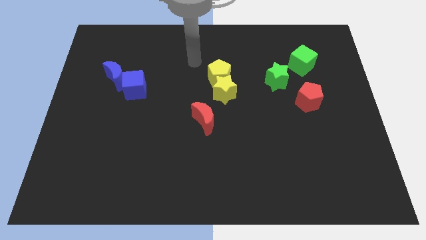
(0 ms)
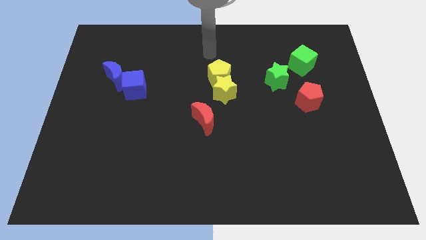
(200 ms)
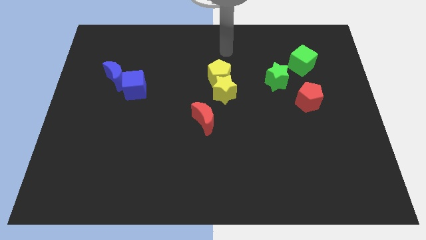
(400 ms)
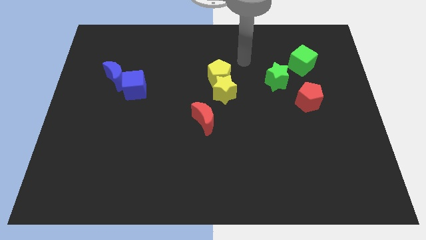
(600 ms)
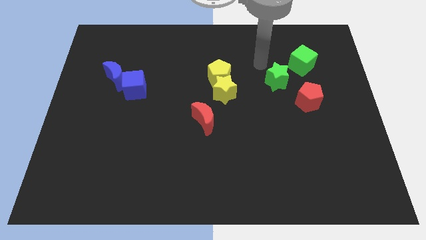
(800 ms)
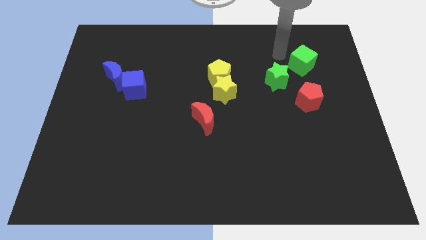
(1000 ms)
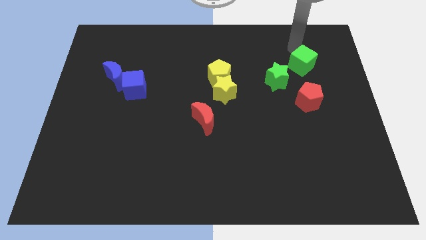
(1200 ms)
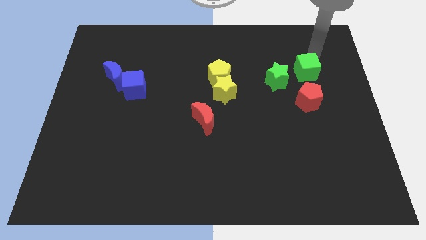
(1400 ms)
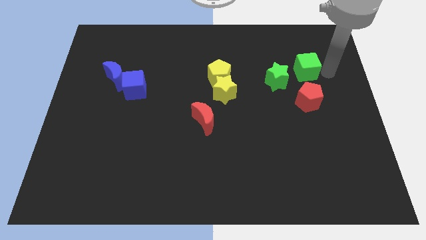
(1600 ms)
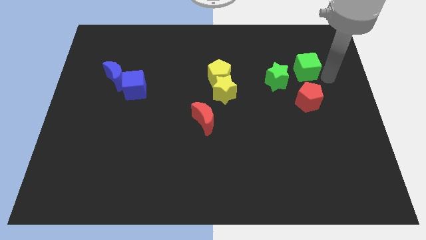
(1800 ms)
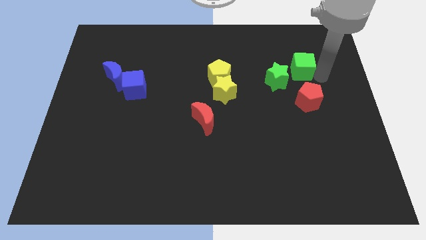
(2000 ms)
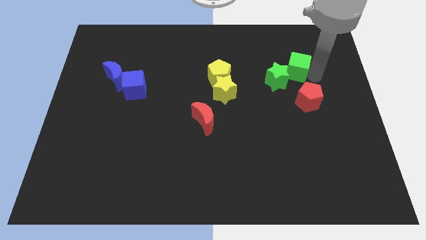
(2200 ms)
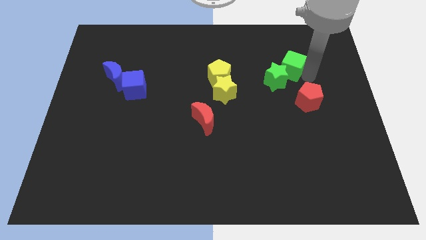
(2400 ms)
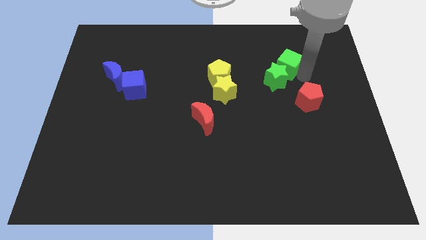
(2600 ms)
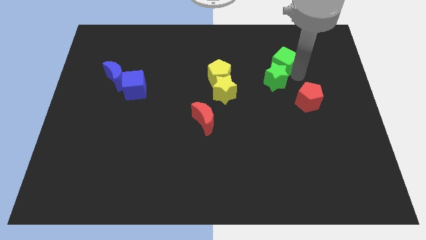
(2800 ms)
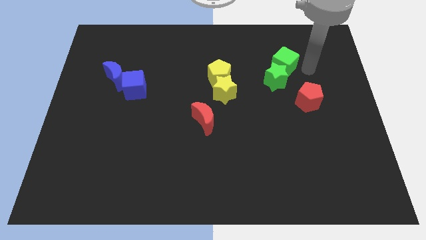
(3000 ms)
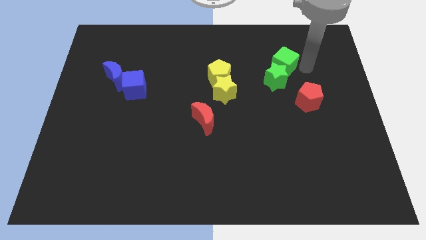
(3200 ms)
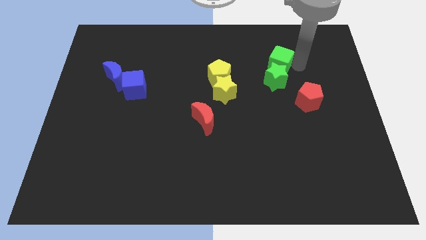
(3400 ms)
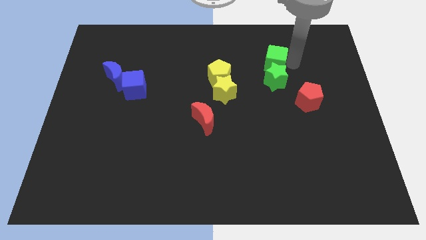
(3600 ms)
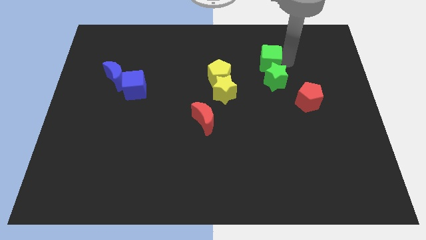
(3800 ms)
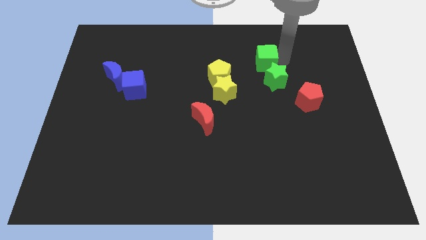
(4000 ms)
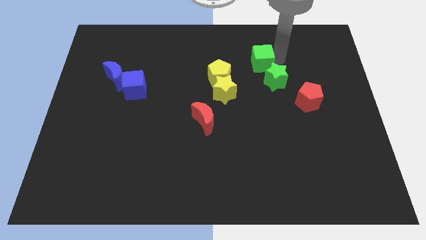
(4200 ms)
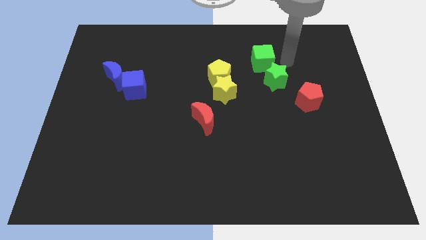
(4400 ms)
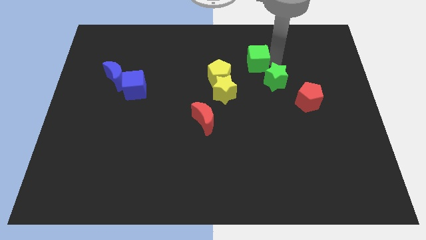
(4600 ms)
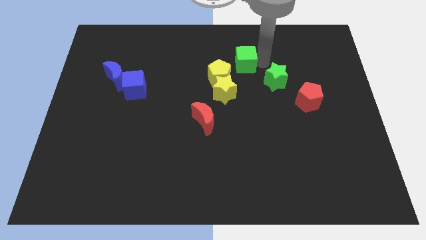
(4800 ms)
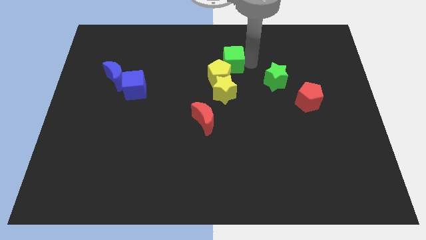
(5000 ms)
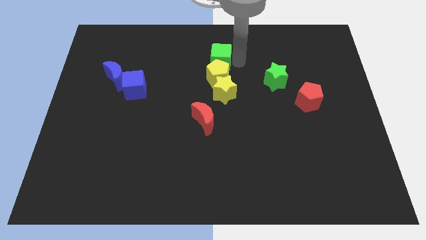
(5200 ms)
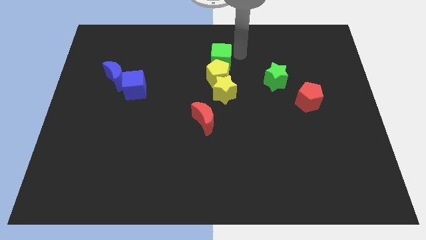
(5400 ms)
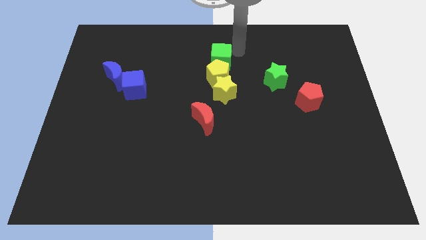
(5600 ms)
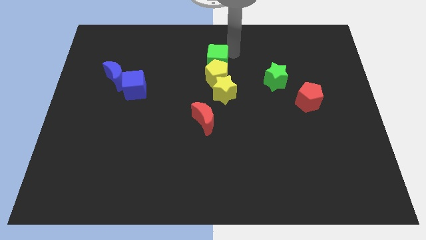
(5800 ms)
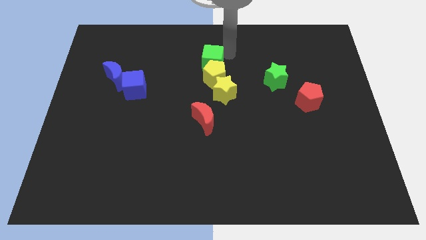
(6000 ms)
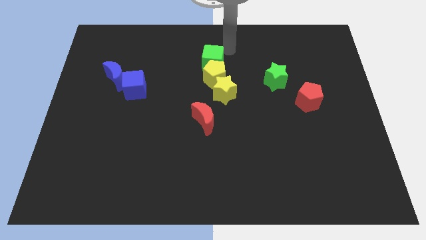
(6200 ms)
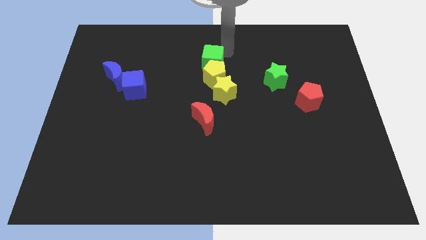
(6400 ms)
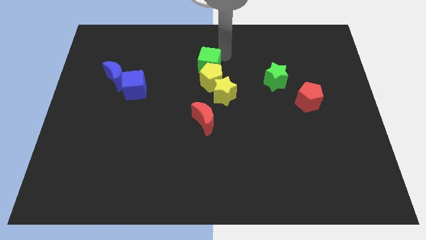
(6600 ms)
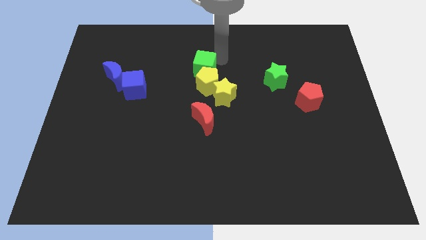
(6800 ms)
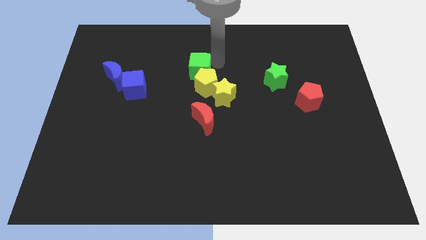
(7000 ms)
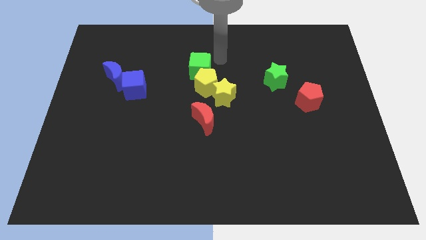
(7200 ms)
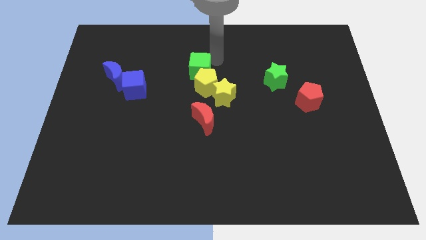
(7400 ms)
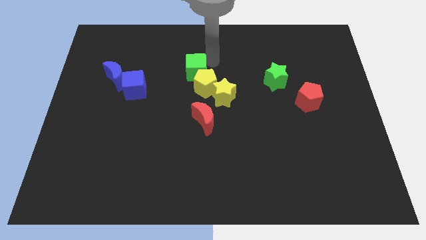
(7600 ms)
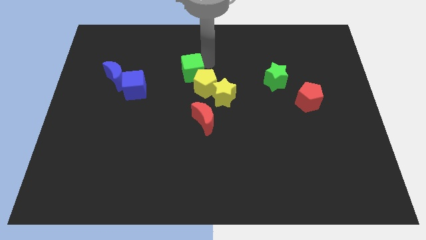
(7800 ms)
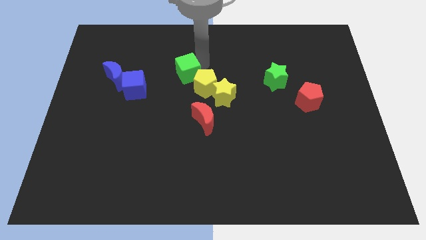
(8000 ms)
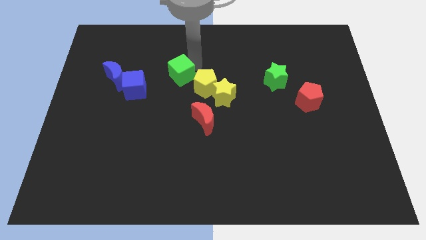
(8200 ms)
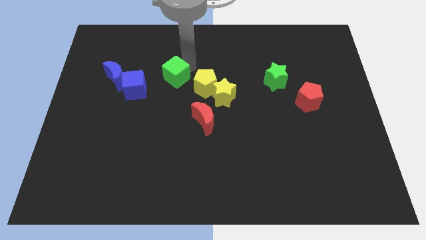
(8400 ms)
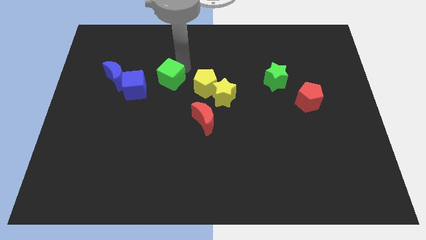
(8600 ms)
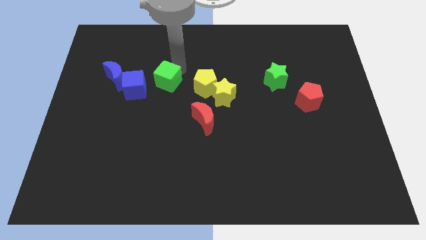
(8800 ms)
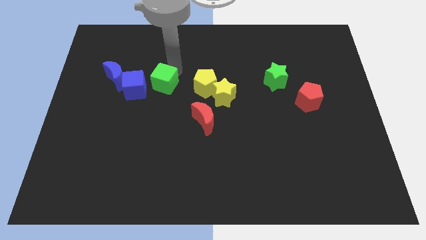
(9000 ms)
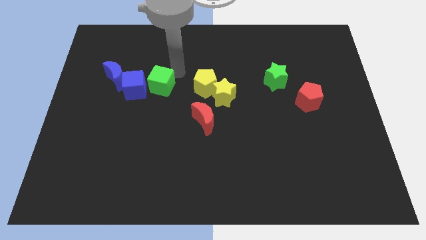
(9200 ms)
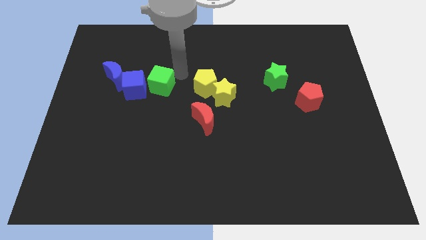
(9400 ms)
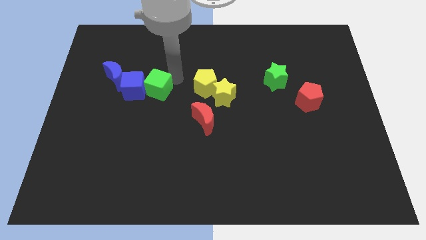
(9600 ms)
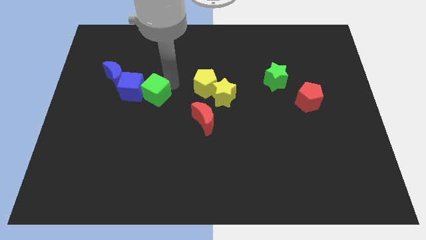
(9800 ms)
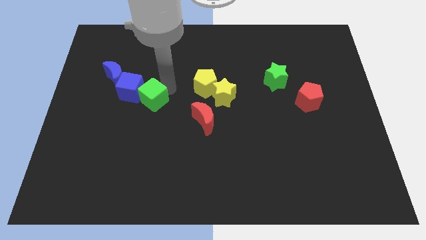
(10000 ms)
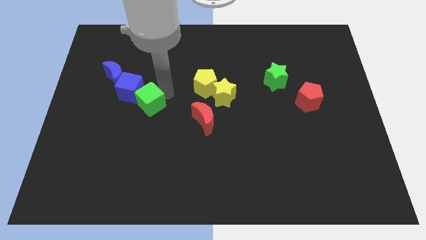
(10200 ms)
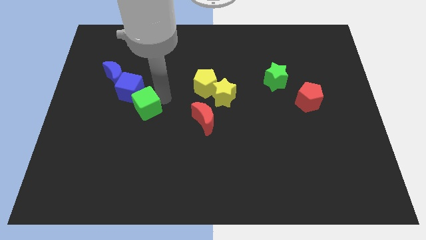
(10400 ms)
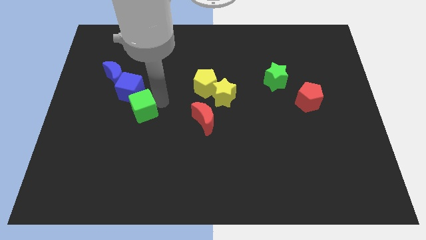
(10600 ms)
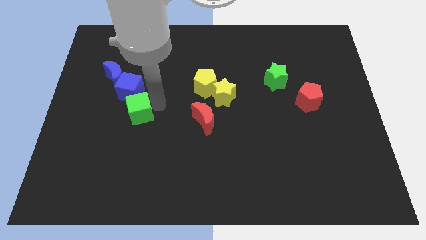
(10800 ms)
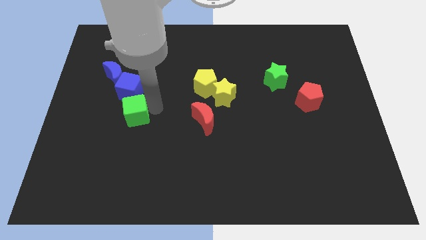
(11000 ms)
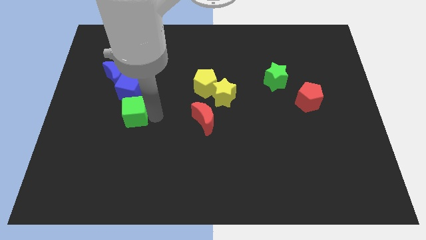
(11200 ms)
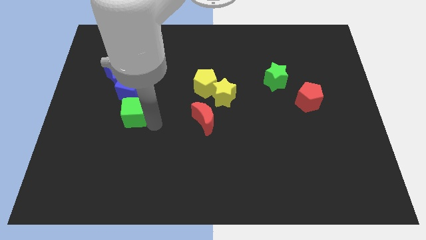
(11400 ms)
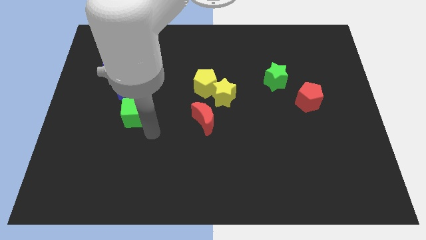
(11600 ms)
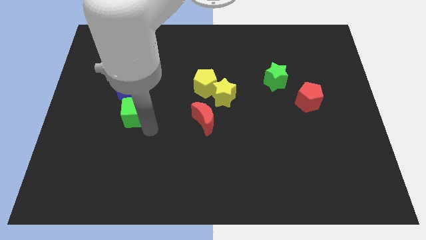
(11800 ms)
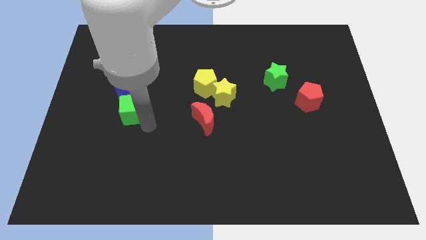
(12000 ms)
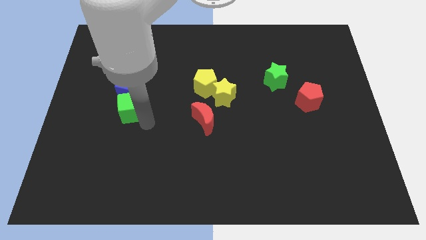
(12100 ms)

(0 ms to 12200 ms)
put the green cube to the bottom side of the blue moon

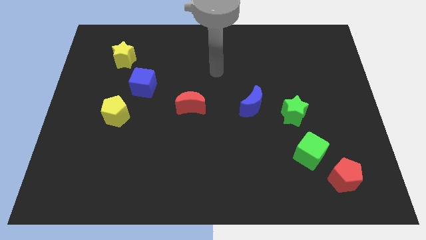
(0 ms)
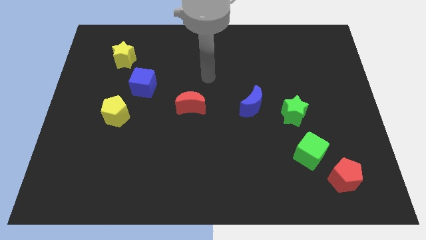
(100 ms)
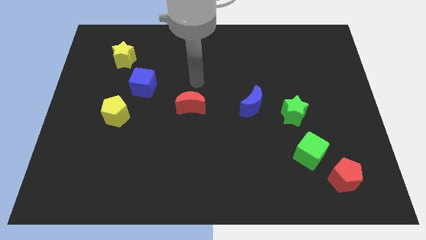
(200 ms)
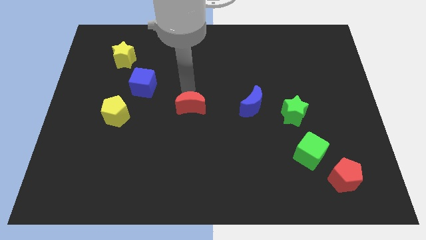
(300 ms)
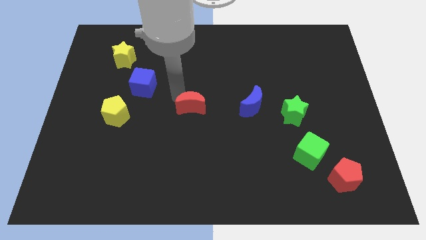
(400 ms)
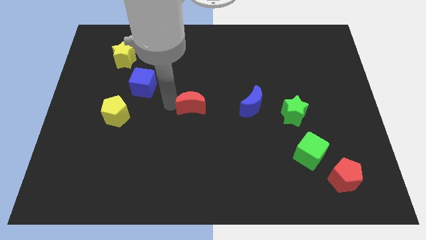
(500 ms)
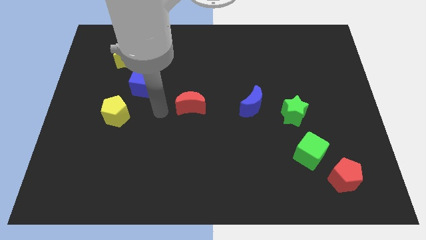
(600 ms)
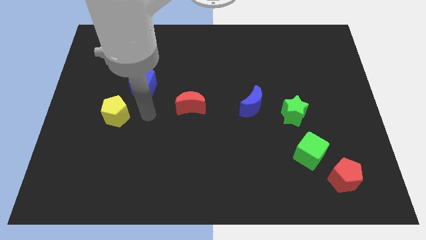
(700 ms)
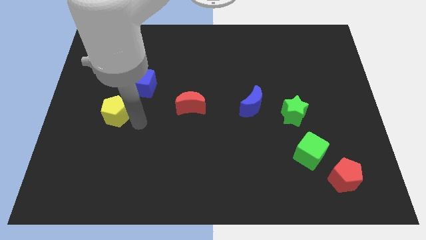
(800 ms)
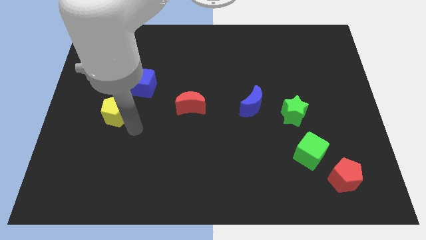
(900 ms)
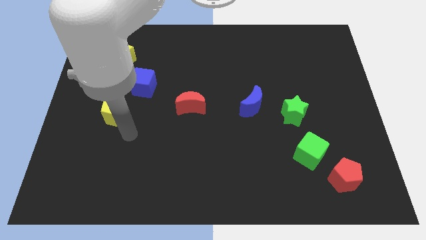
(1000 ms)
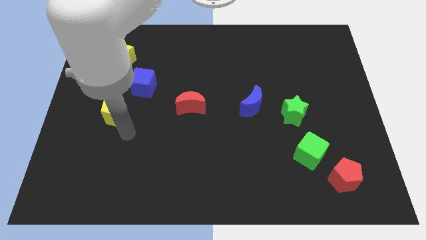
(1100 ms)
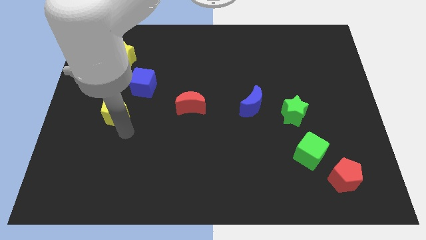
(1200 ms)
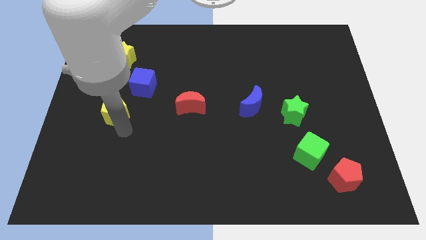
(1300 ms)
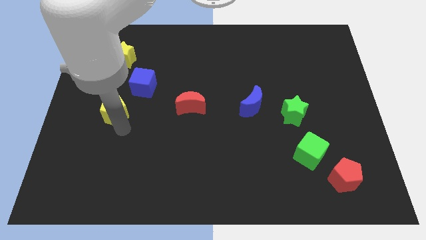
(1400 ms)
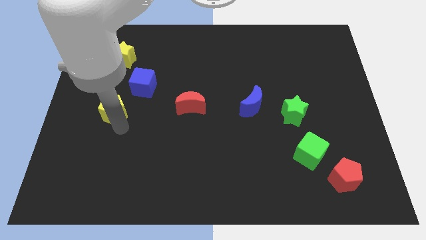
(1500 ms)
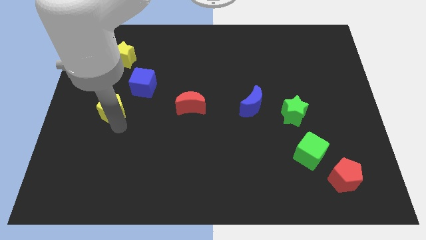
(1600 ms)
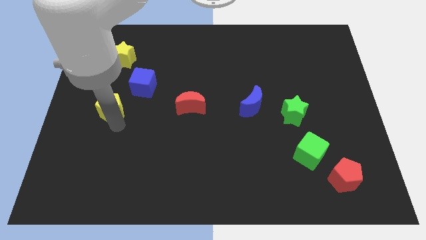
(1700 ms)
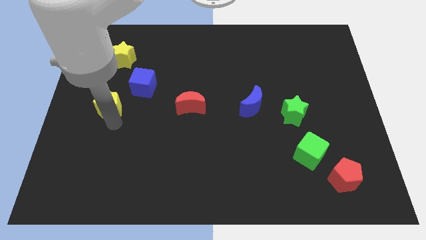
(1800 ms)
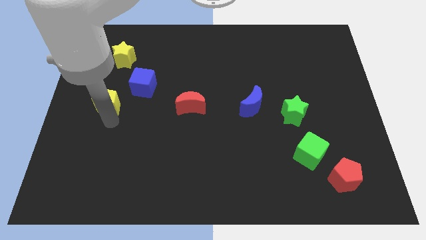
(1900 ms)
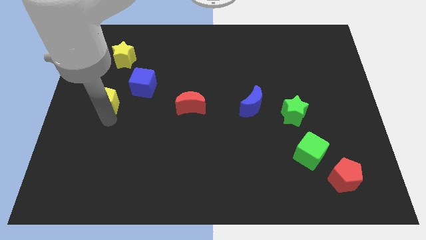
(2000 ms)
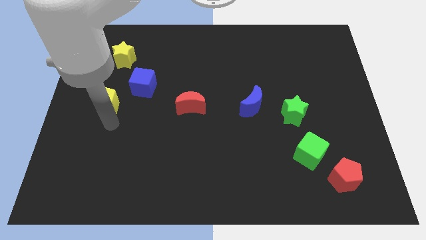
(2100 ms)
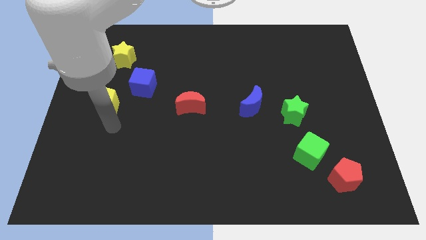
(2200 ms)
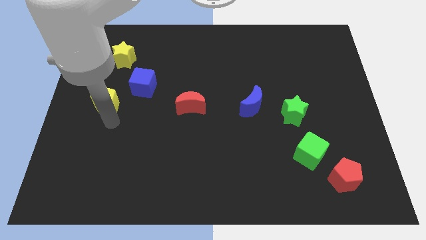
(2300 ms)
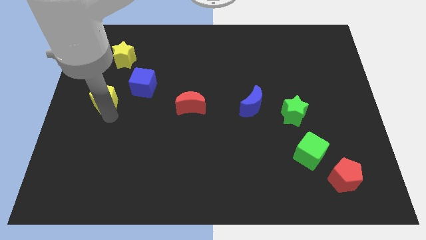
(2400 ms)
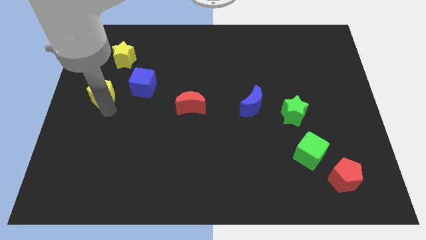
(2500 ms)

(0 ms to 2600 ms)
slide the yellow pentagon to the left side of the blue cube
